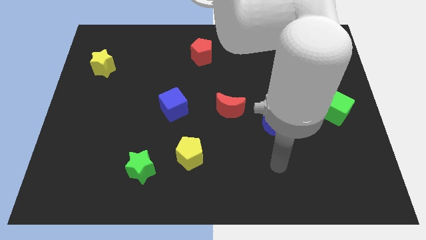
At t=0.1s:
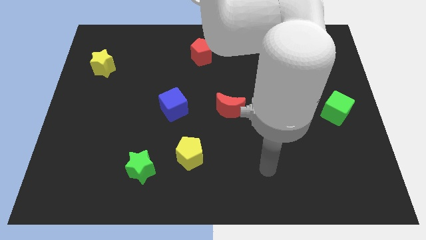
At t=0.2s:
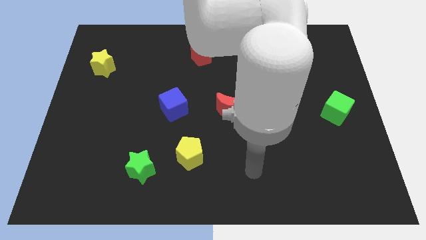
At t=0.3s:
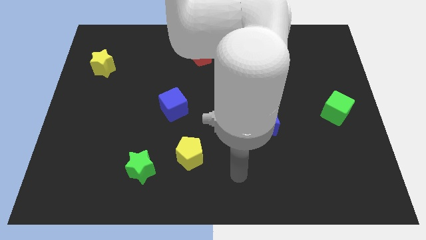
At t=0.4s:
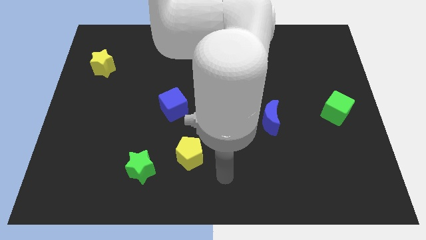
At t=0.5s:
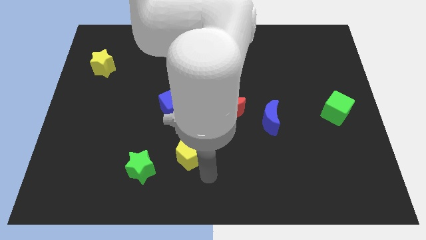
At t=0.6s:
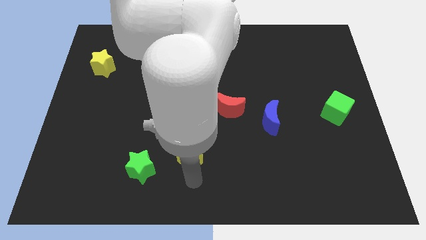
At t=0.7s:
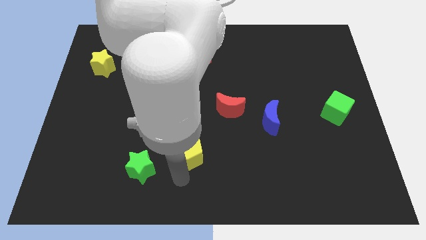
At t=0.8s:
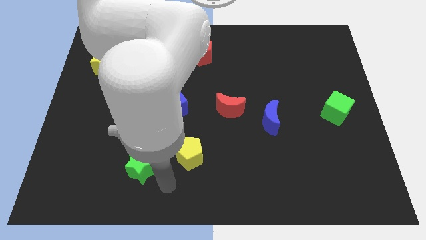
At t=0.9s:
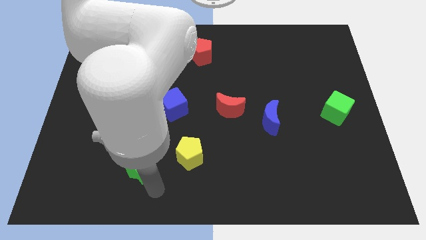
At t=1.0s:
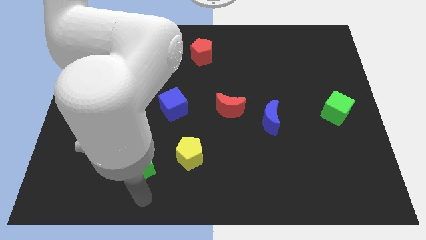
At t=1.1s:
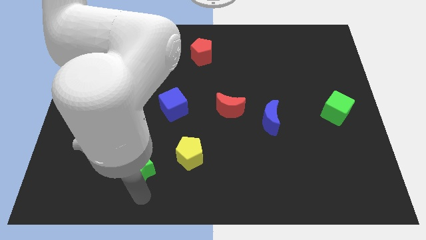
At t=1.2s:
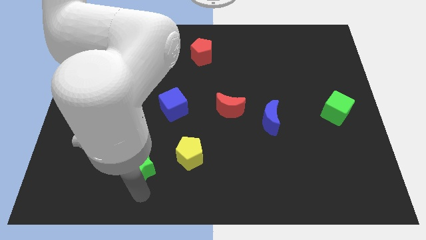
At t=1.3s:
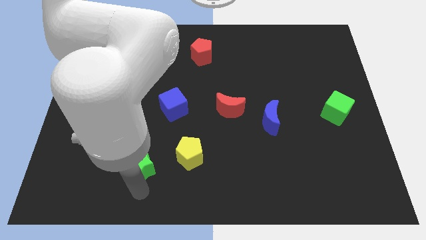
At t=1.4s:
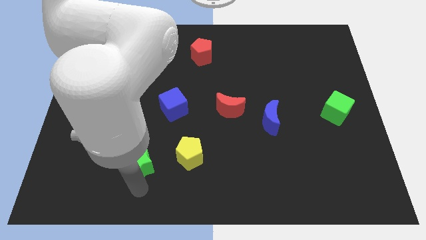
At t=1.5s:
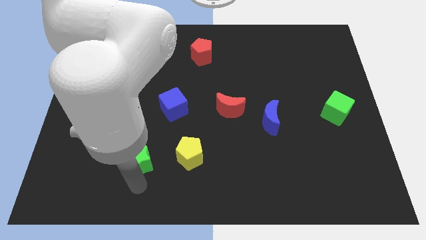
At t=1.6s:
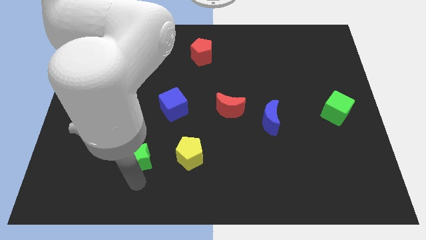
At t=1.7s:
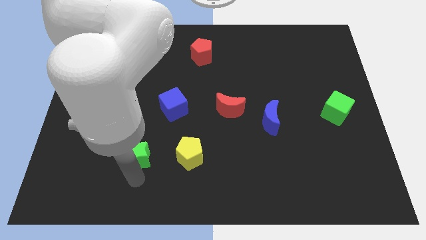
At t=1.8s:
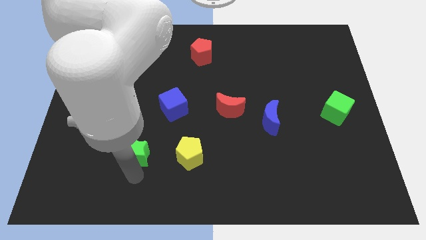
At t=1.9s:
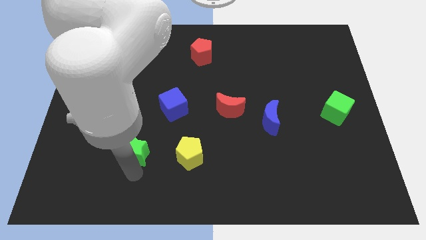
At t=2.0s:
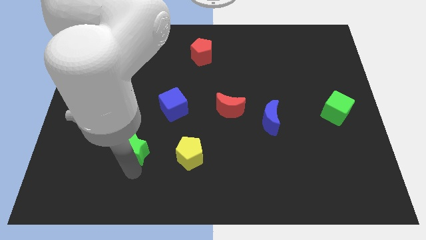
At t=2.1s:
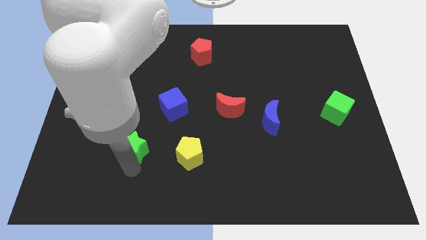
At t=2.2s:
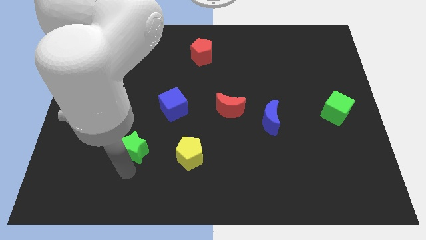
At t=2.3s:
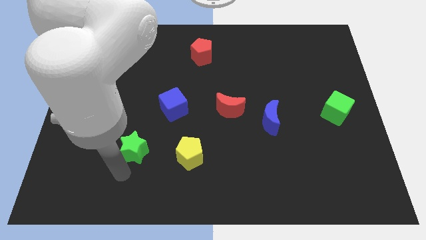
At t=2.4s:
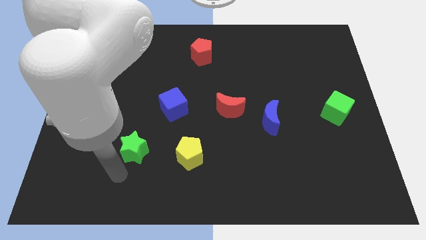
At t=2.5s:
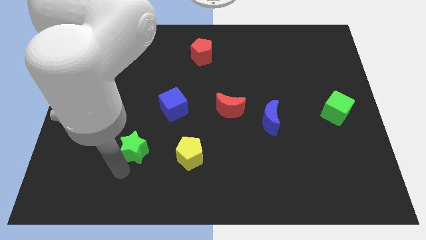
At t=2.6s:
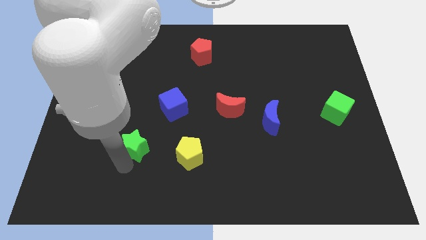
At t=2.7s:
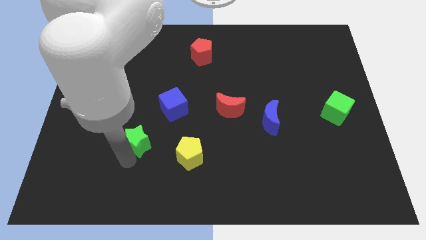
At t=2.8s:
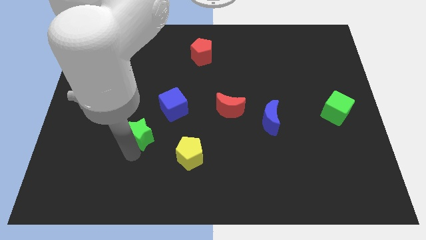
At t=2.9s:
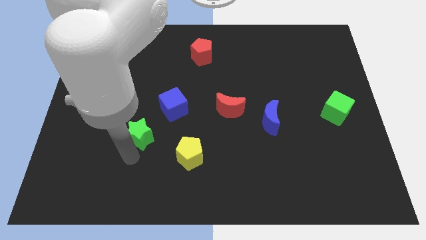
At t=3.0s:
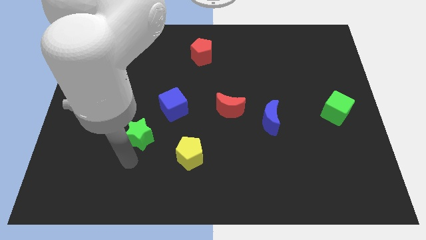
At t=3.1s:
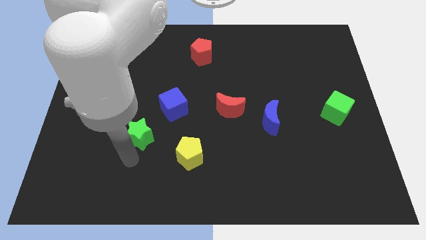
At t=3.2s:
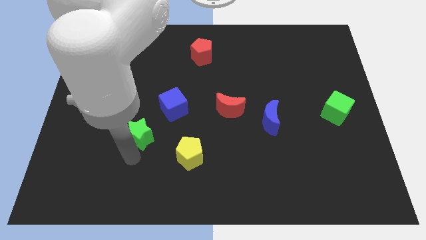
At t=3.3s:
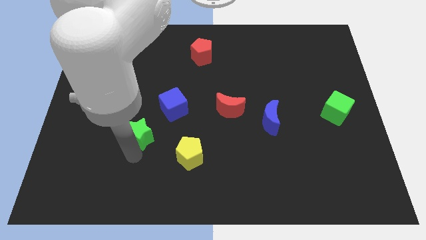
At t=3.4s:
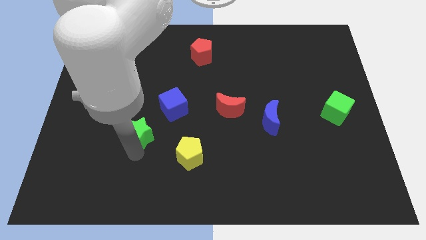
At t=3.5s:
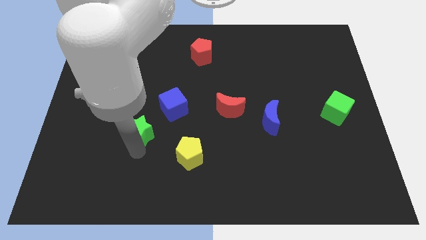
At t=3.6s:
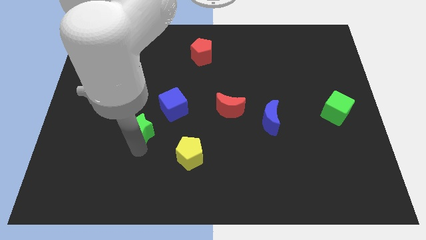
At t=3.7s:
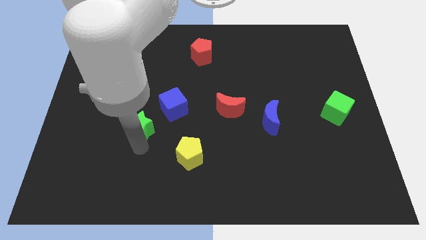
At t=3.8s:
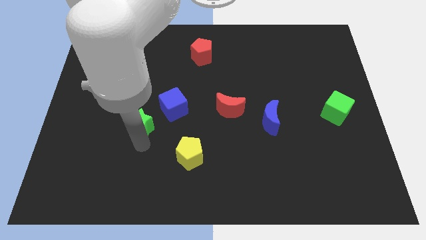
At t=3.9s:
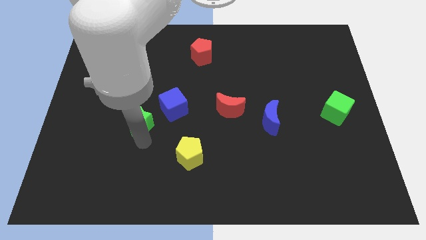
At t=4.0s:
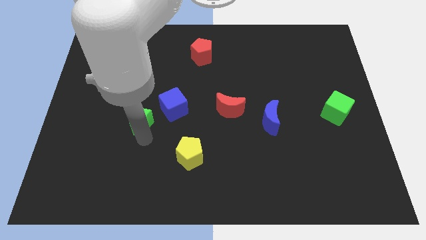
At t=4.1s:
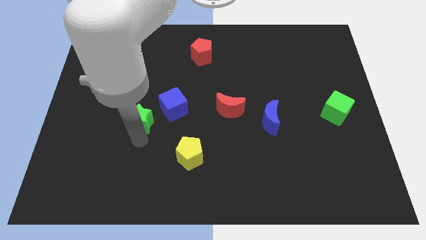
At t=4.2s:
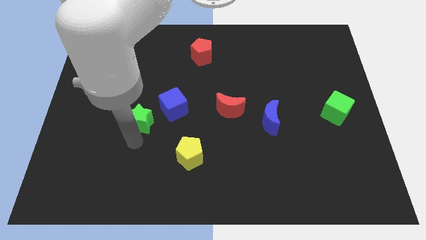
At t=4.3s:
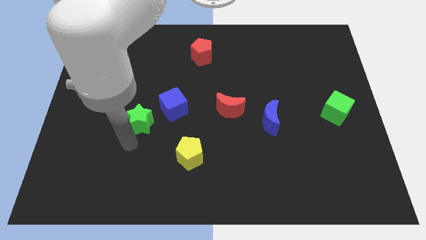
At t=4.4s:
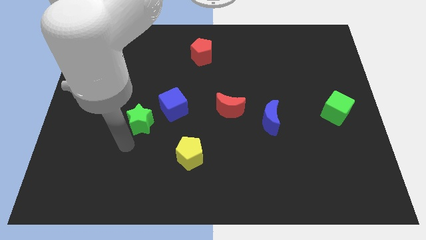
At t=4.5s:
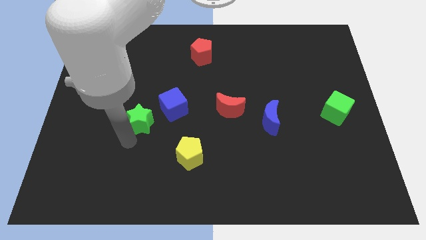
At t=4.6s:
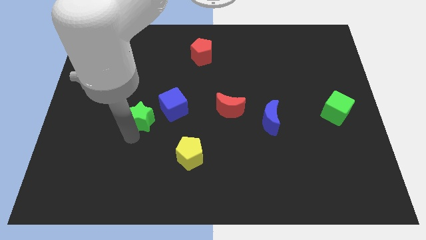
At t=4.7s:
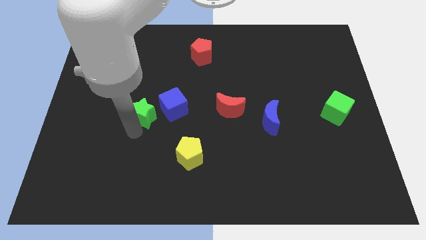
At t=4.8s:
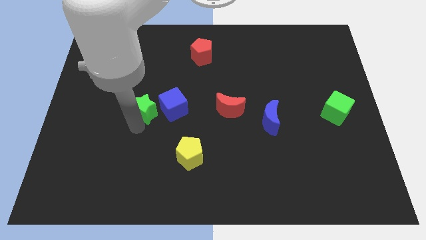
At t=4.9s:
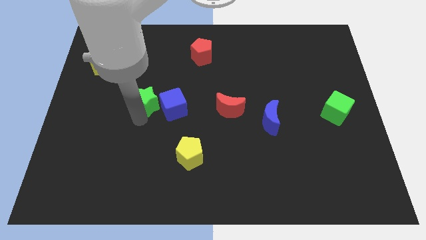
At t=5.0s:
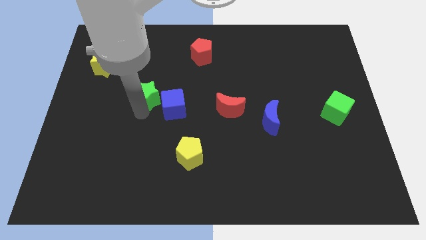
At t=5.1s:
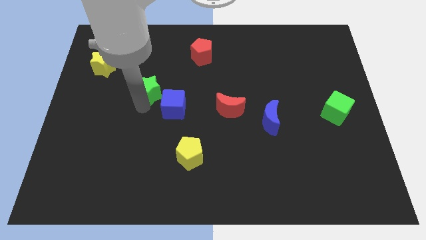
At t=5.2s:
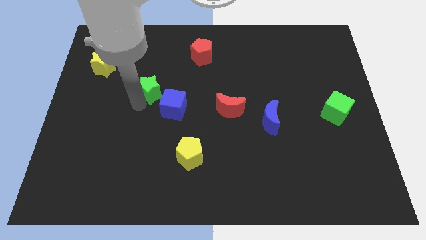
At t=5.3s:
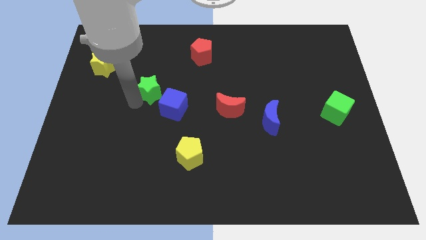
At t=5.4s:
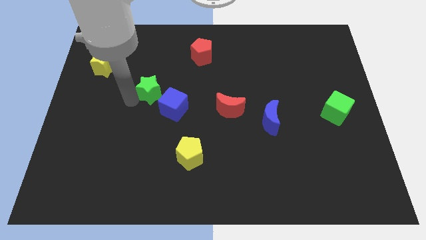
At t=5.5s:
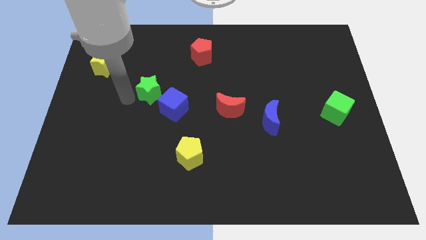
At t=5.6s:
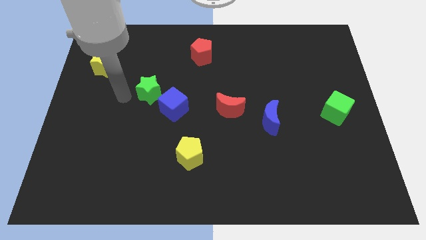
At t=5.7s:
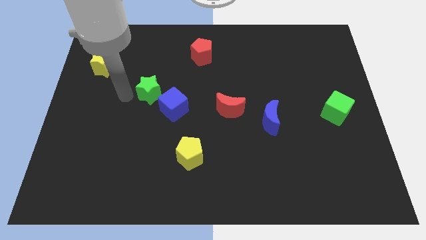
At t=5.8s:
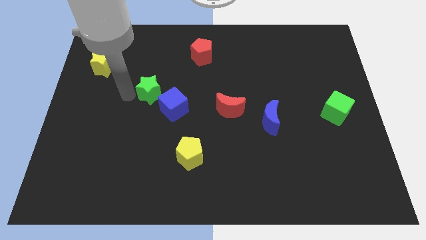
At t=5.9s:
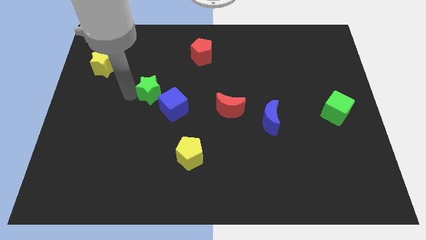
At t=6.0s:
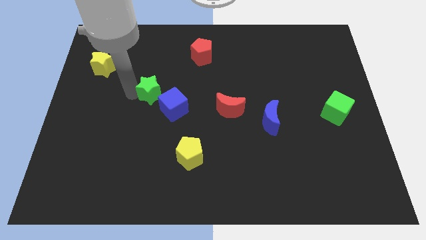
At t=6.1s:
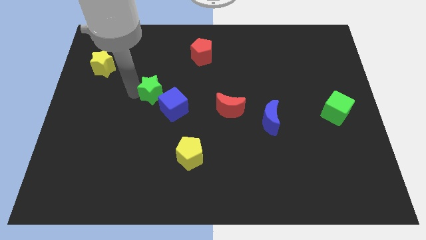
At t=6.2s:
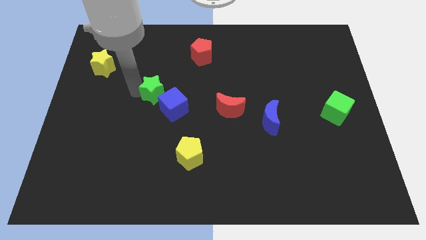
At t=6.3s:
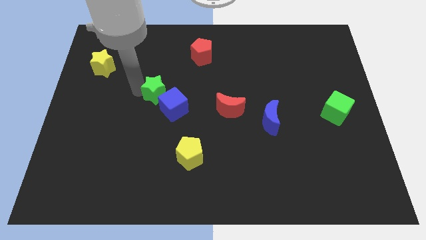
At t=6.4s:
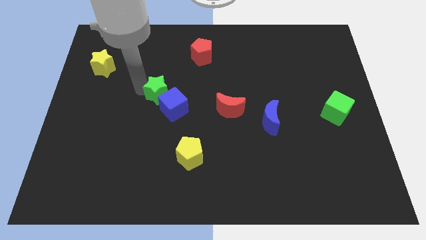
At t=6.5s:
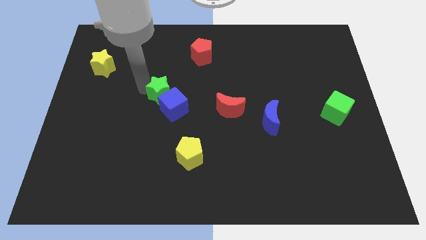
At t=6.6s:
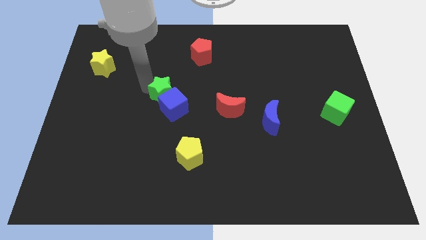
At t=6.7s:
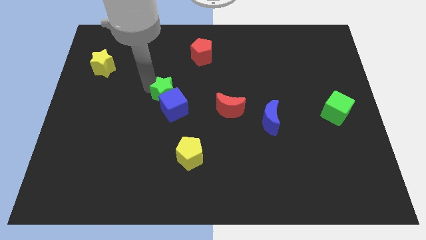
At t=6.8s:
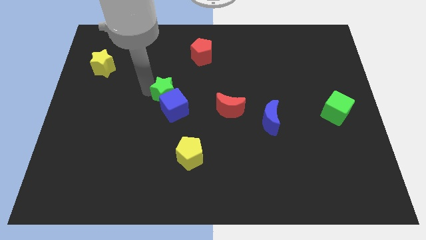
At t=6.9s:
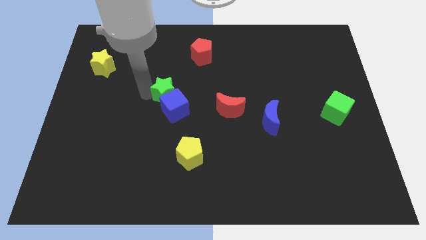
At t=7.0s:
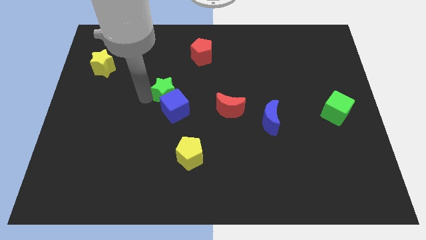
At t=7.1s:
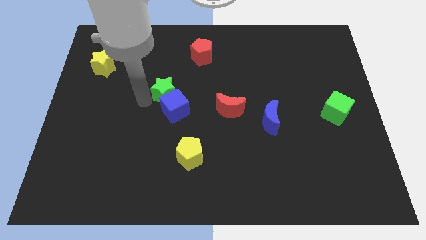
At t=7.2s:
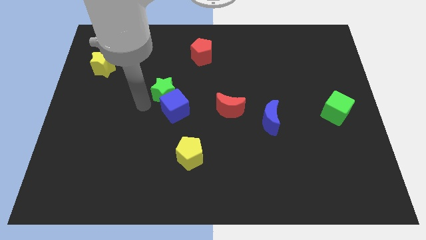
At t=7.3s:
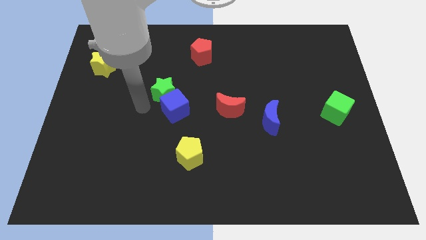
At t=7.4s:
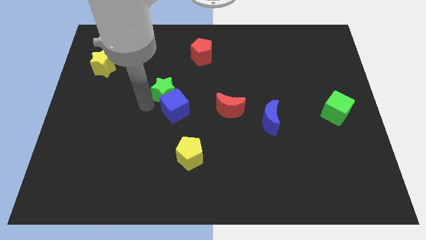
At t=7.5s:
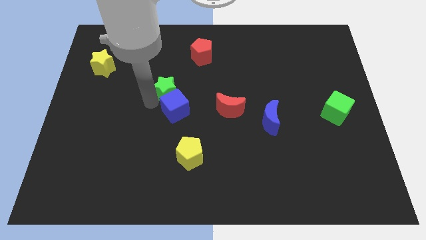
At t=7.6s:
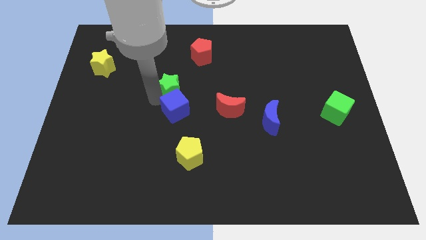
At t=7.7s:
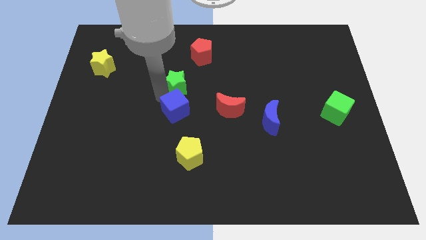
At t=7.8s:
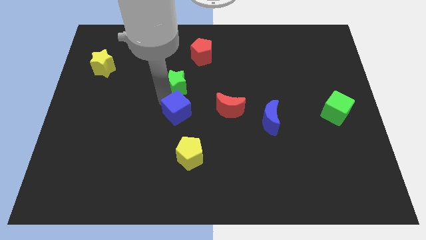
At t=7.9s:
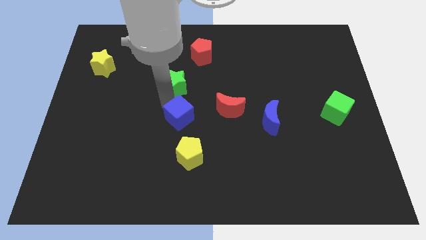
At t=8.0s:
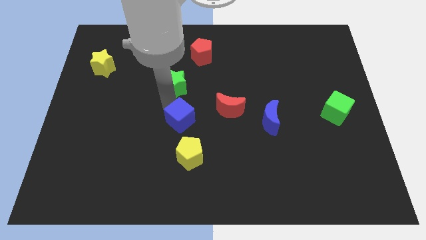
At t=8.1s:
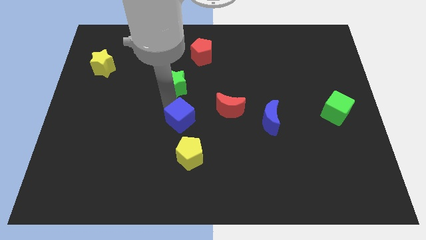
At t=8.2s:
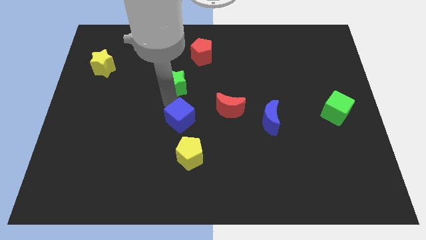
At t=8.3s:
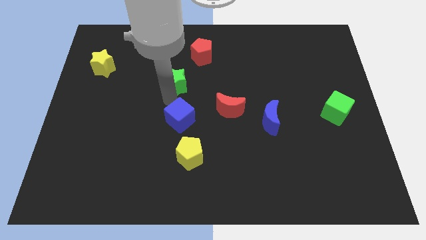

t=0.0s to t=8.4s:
slide the green star diagonally down and to the left of the red pentagon
